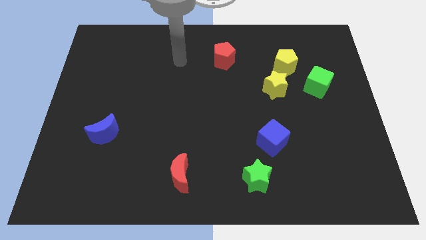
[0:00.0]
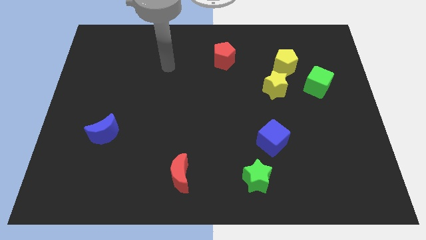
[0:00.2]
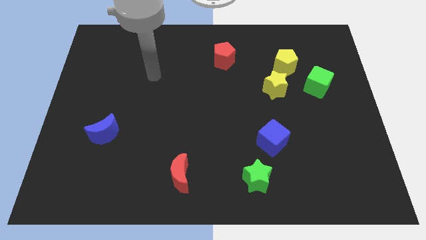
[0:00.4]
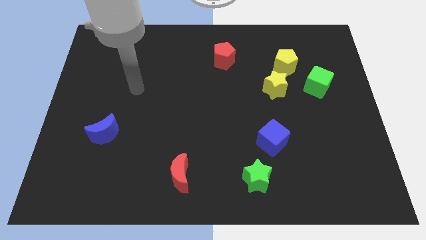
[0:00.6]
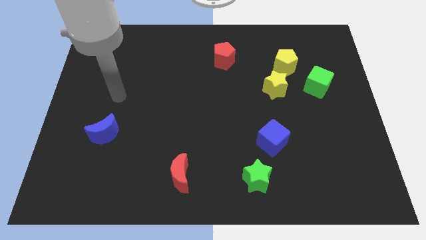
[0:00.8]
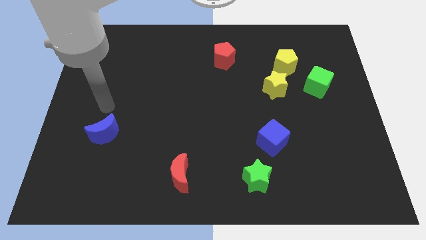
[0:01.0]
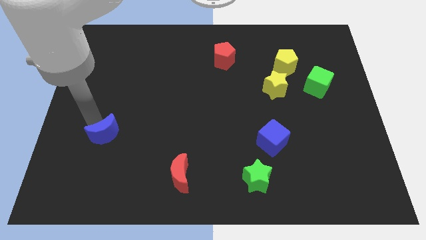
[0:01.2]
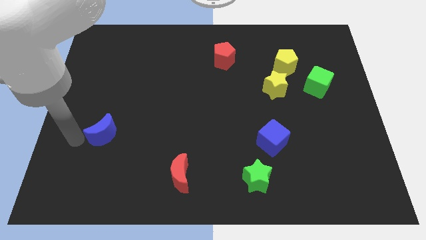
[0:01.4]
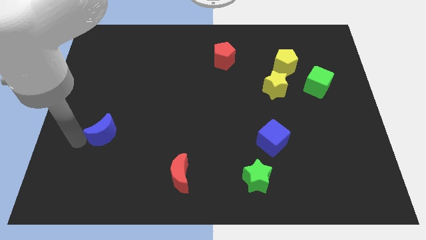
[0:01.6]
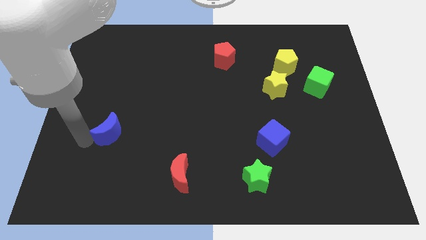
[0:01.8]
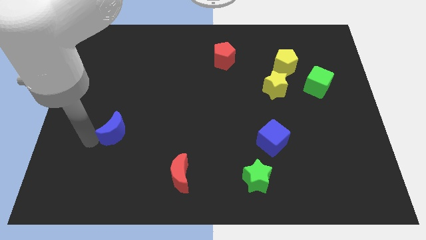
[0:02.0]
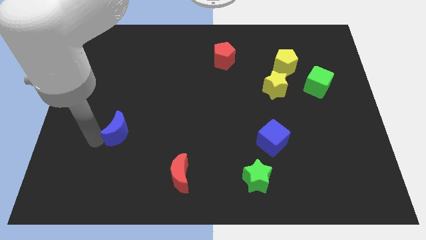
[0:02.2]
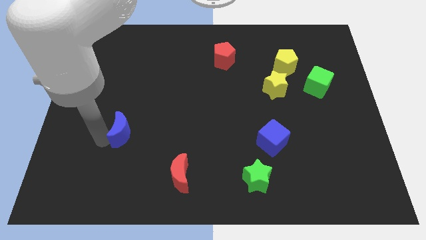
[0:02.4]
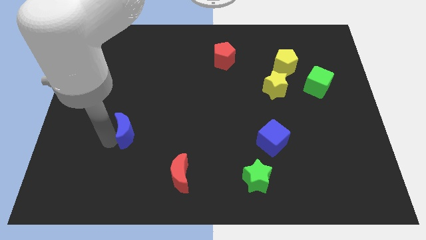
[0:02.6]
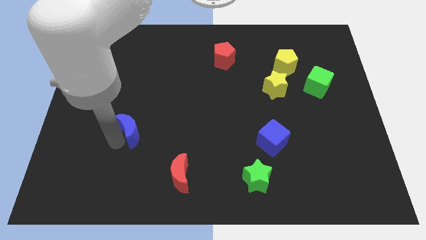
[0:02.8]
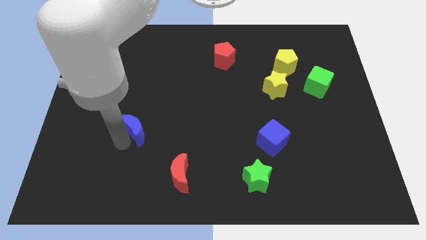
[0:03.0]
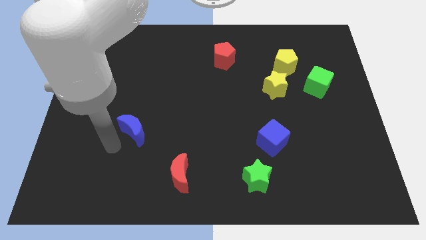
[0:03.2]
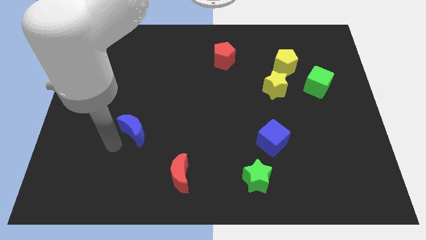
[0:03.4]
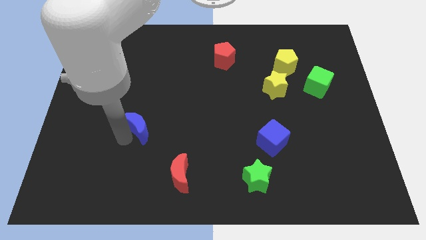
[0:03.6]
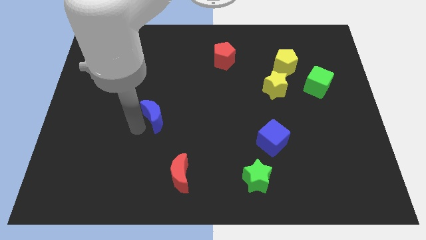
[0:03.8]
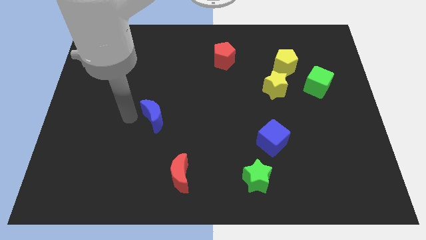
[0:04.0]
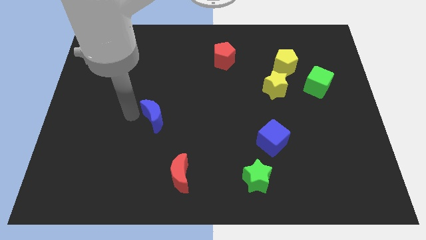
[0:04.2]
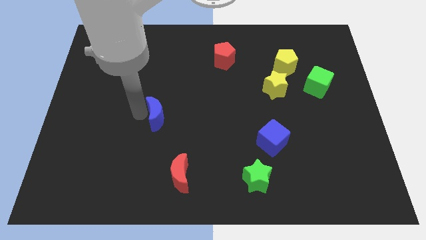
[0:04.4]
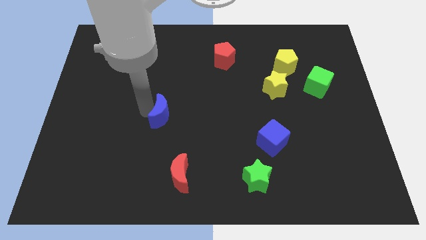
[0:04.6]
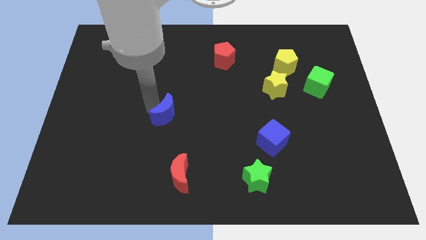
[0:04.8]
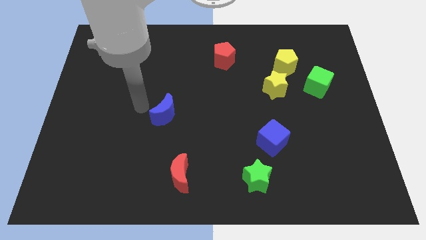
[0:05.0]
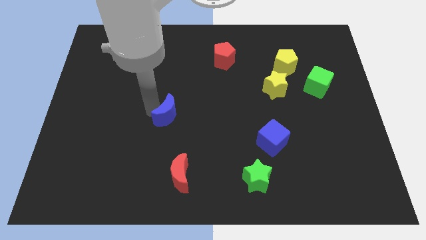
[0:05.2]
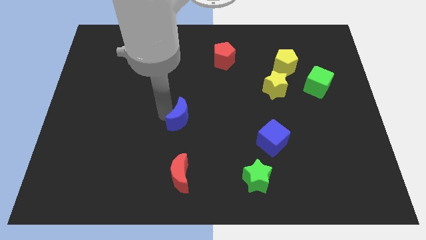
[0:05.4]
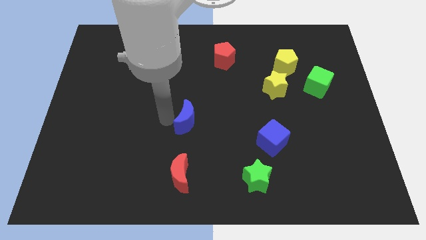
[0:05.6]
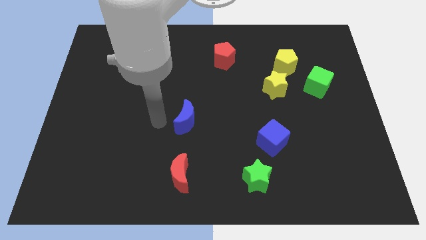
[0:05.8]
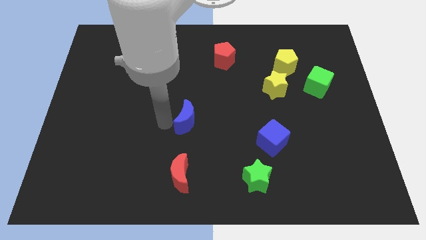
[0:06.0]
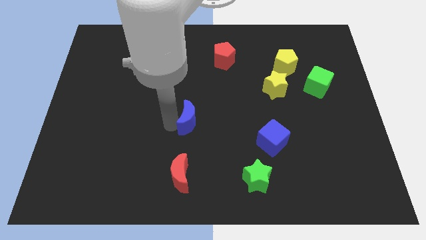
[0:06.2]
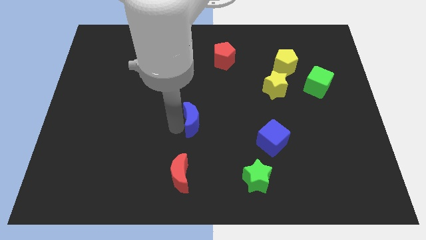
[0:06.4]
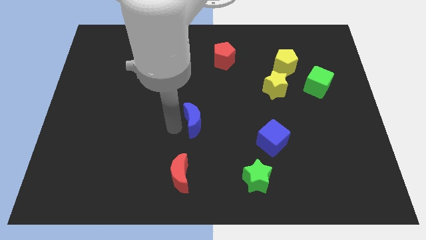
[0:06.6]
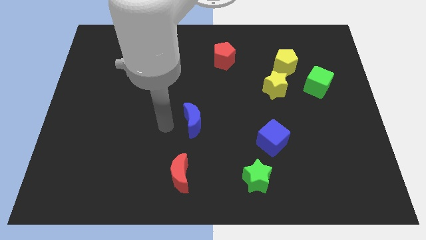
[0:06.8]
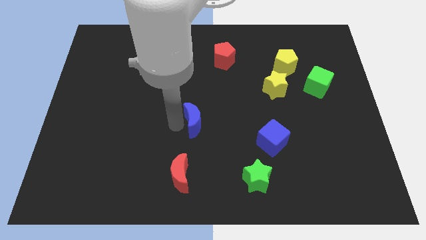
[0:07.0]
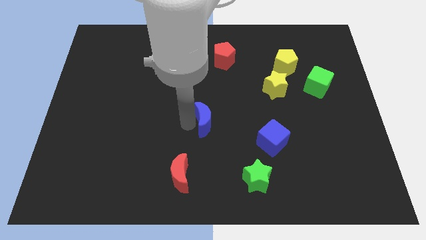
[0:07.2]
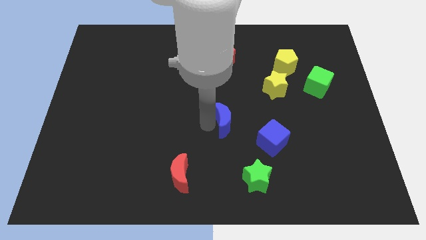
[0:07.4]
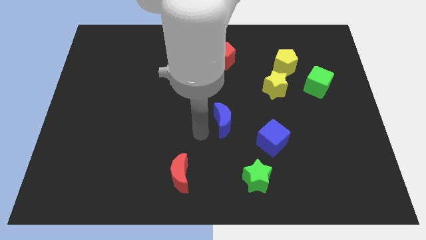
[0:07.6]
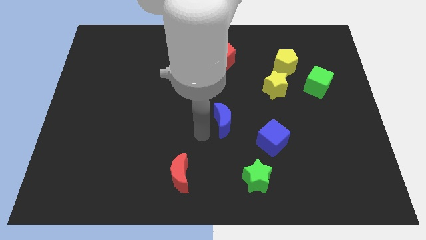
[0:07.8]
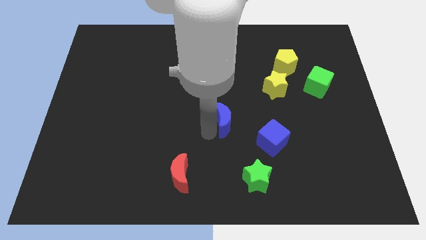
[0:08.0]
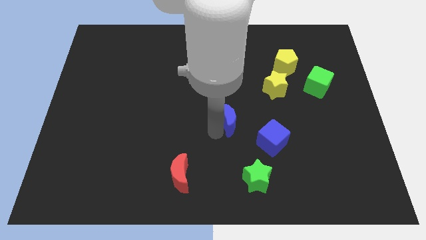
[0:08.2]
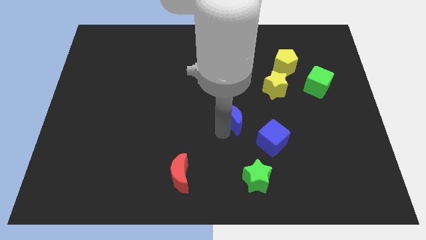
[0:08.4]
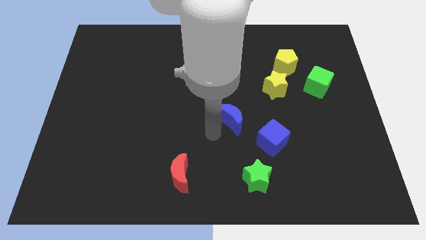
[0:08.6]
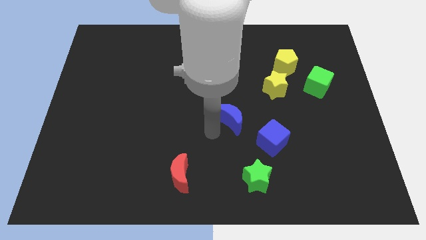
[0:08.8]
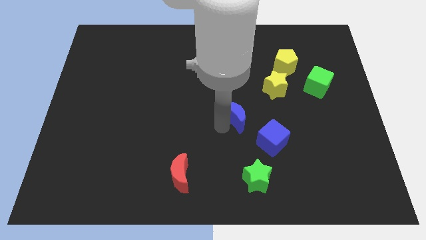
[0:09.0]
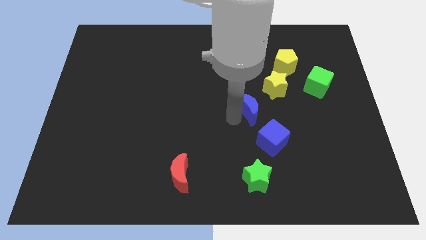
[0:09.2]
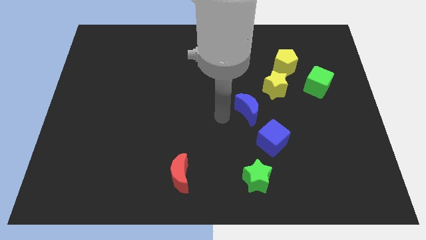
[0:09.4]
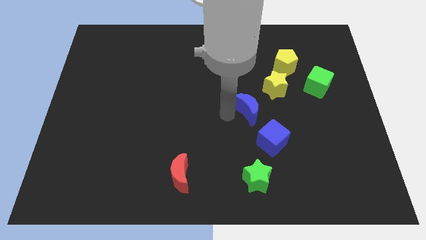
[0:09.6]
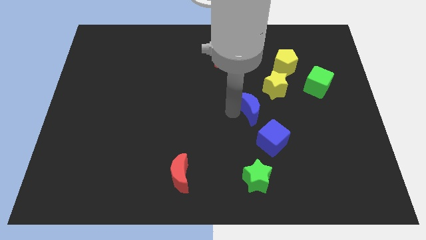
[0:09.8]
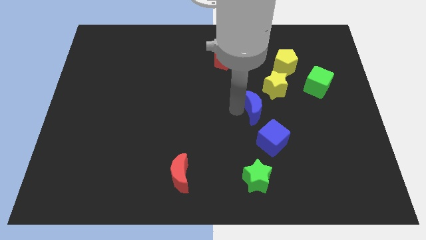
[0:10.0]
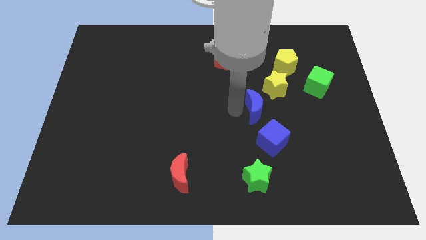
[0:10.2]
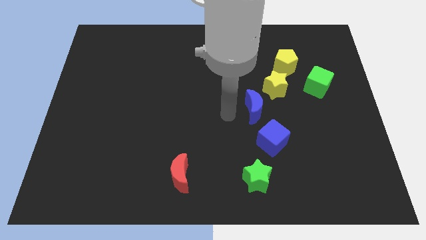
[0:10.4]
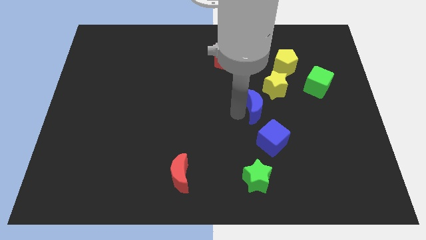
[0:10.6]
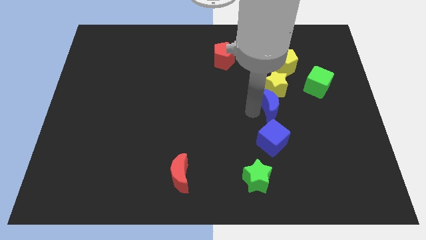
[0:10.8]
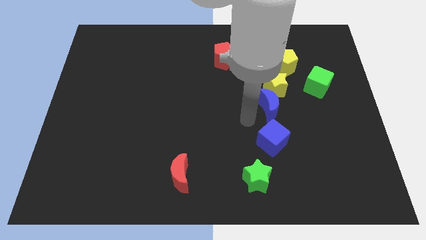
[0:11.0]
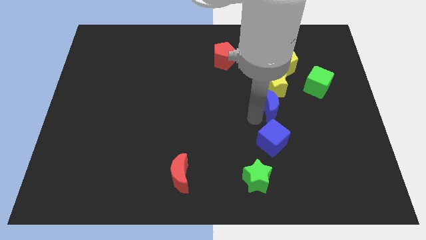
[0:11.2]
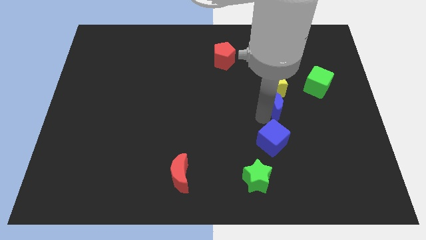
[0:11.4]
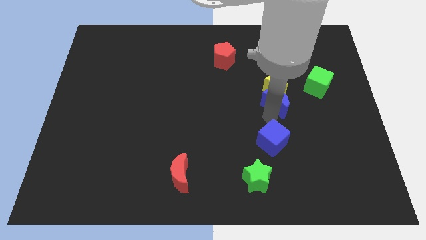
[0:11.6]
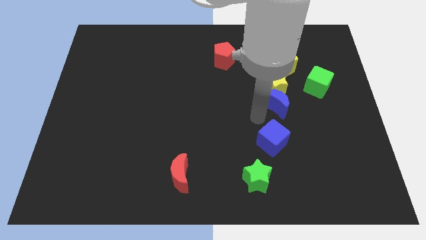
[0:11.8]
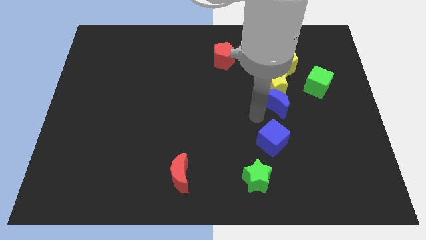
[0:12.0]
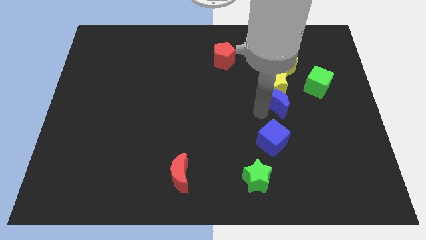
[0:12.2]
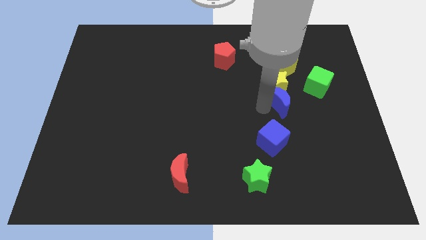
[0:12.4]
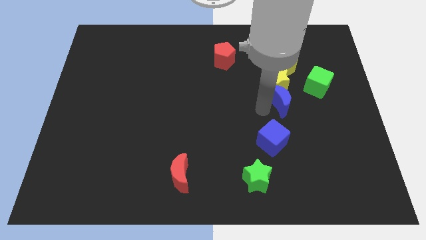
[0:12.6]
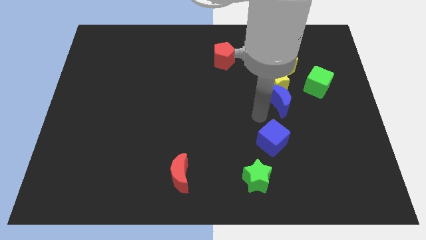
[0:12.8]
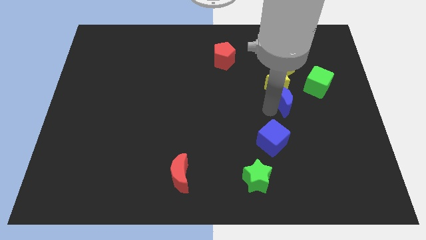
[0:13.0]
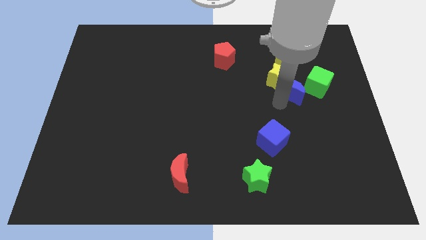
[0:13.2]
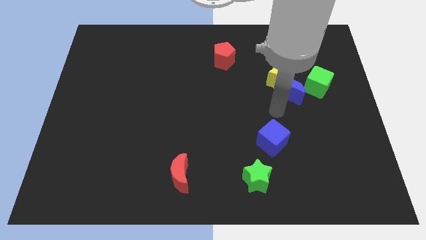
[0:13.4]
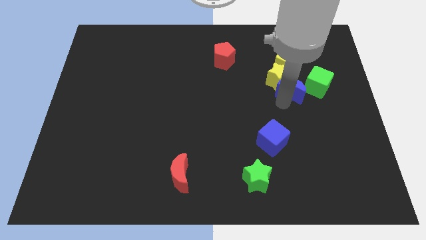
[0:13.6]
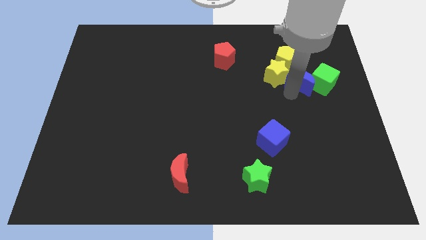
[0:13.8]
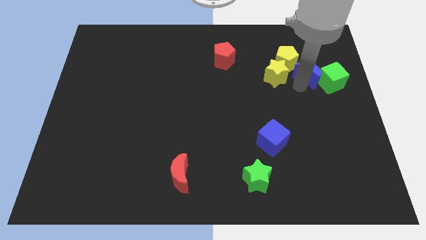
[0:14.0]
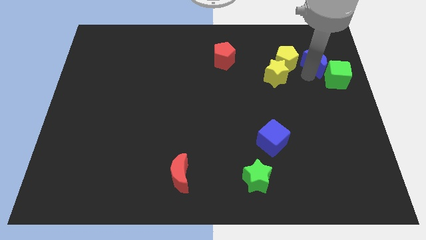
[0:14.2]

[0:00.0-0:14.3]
move the blue moon to the top side of the green cube
